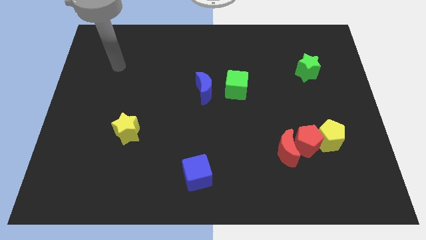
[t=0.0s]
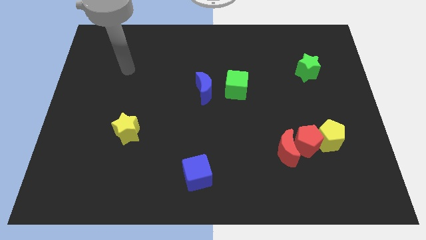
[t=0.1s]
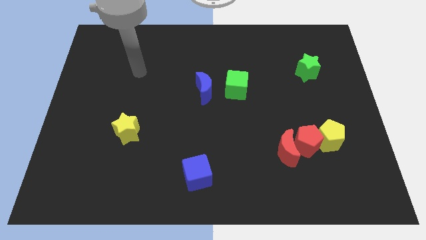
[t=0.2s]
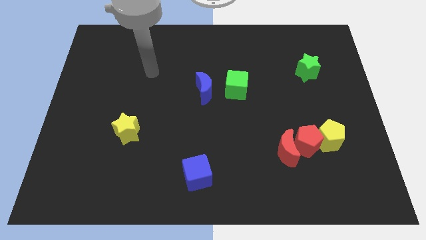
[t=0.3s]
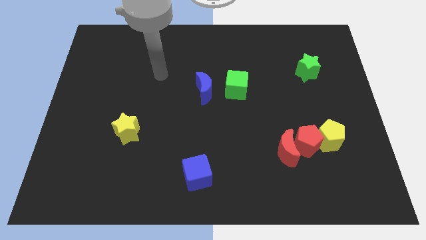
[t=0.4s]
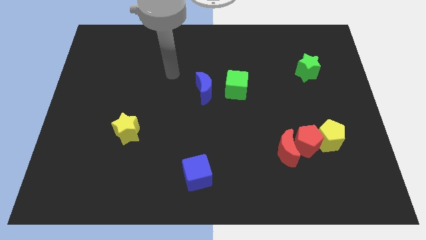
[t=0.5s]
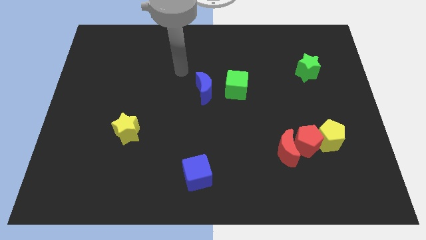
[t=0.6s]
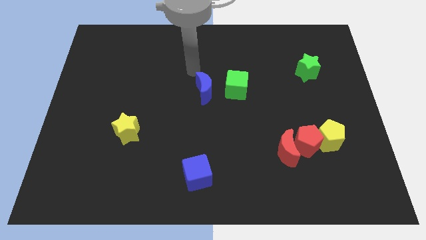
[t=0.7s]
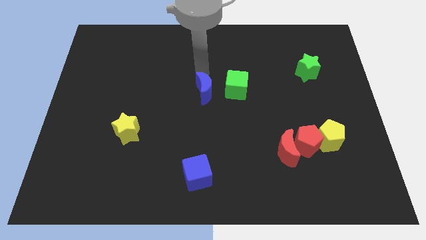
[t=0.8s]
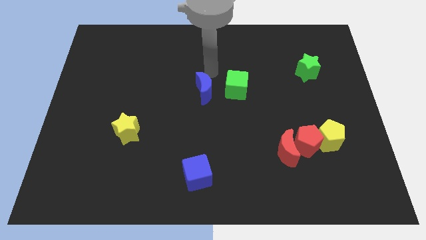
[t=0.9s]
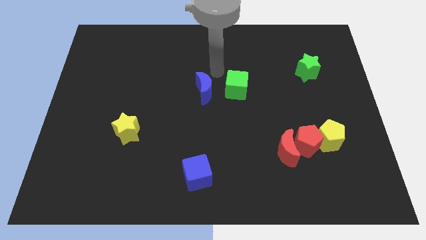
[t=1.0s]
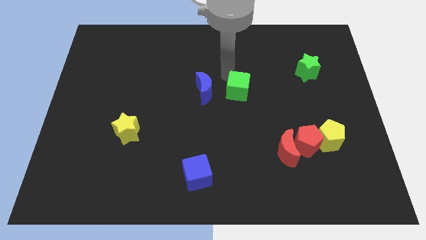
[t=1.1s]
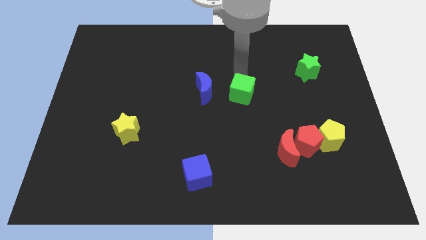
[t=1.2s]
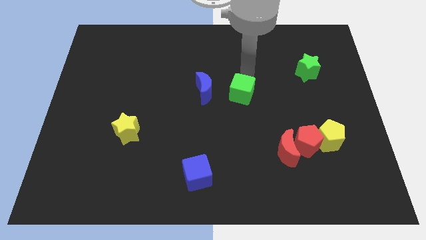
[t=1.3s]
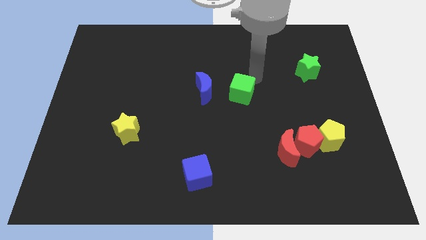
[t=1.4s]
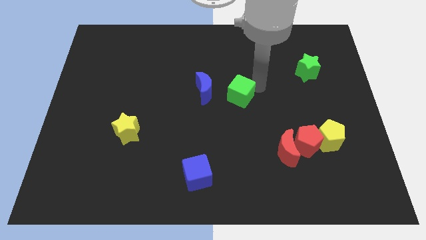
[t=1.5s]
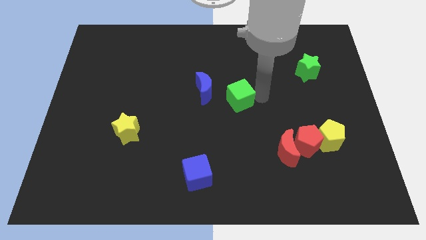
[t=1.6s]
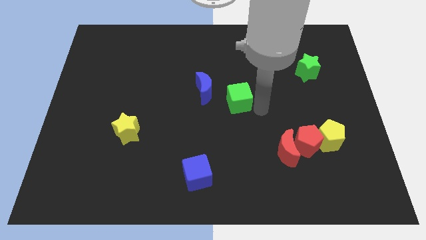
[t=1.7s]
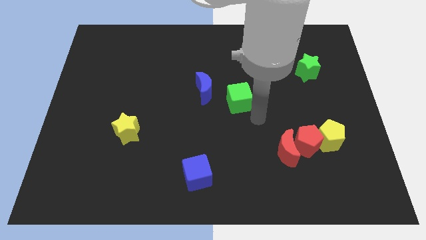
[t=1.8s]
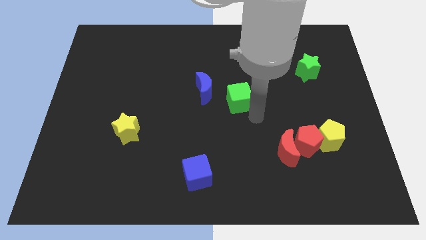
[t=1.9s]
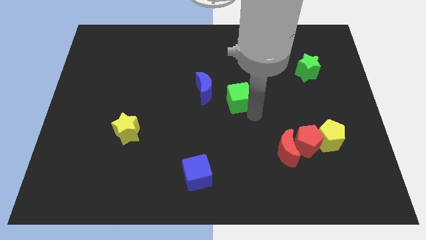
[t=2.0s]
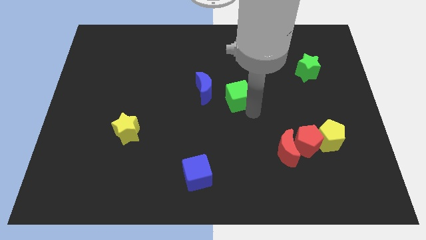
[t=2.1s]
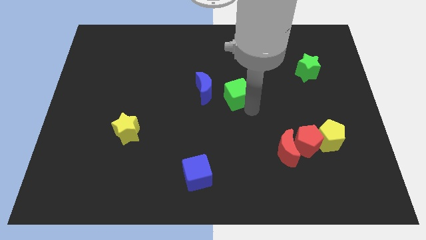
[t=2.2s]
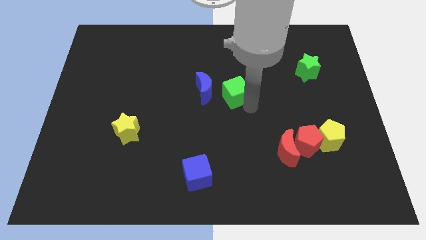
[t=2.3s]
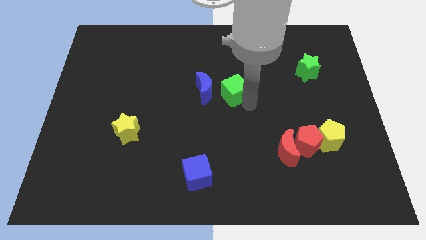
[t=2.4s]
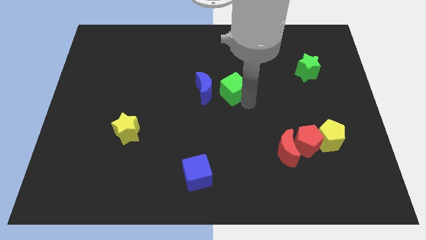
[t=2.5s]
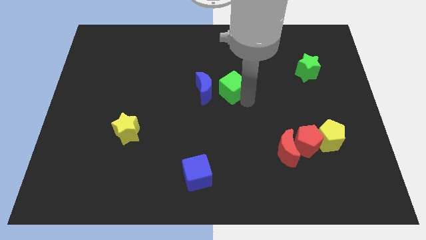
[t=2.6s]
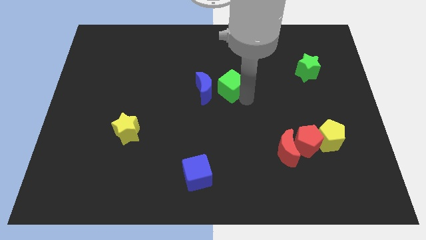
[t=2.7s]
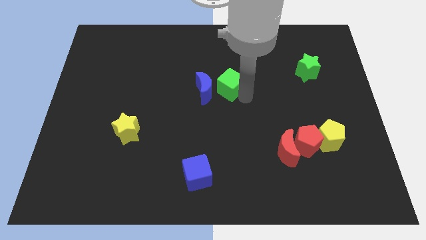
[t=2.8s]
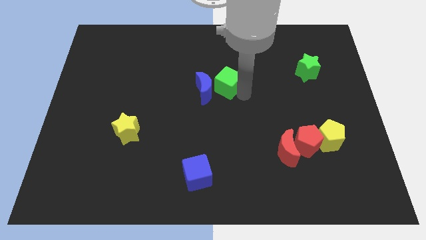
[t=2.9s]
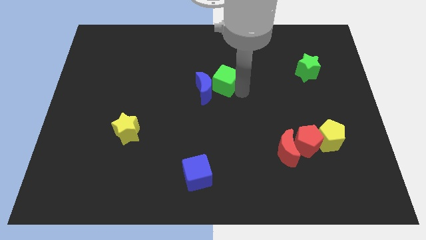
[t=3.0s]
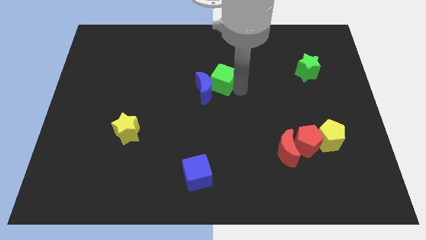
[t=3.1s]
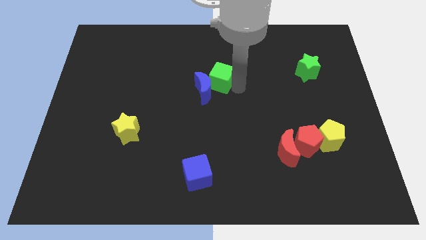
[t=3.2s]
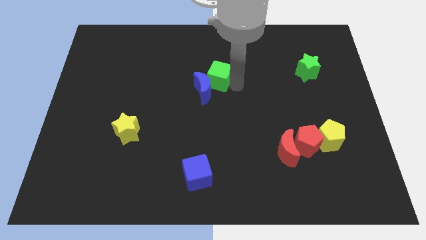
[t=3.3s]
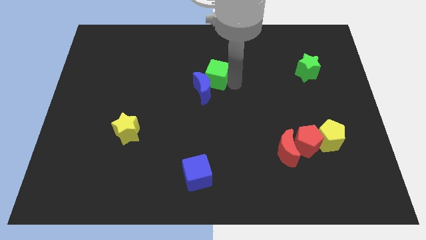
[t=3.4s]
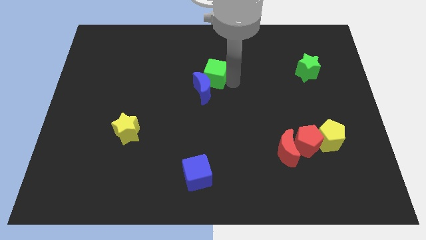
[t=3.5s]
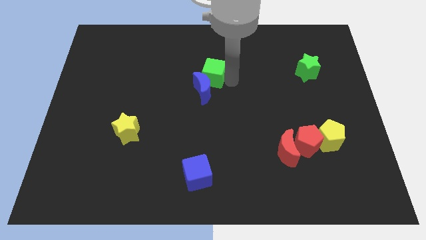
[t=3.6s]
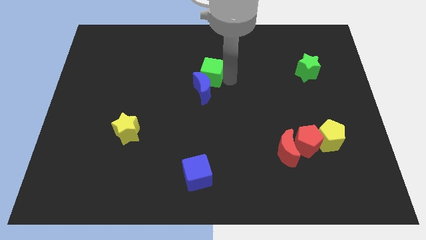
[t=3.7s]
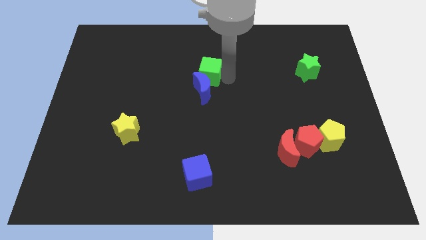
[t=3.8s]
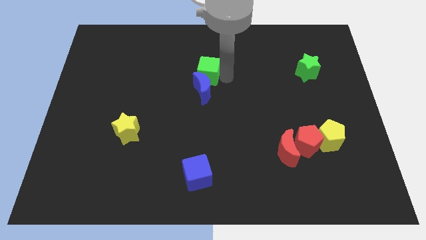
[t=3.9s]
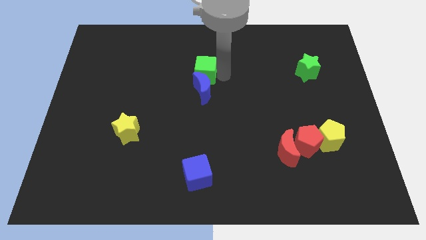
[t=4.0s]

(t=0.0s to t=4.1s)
slide the green cube left somewhat

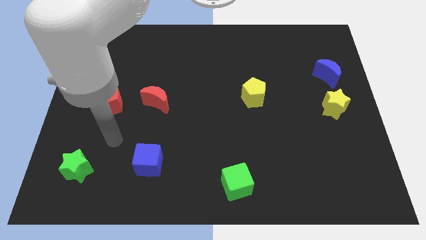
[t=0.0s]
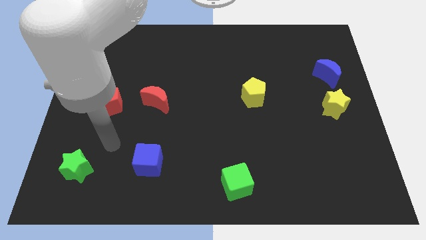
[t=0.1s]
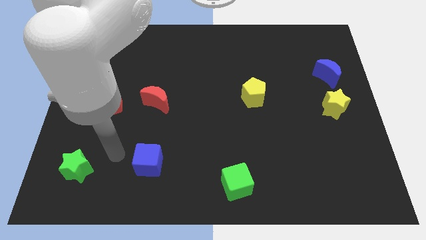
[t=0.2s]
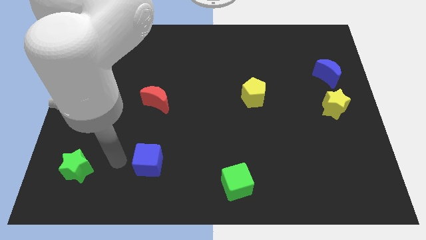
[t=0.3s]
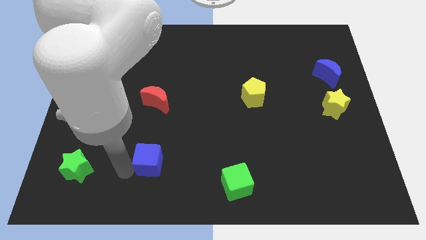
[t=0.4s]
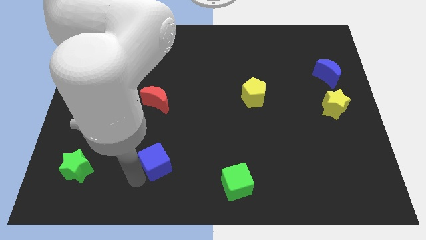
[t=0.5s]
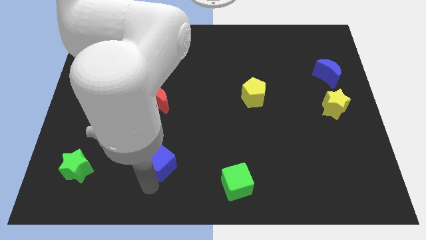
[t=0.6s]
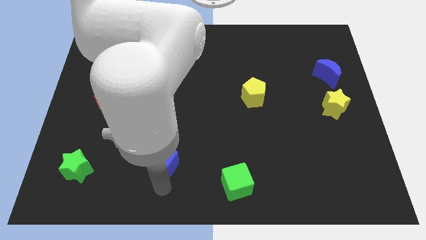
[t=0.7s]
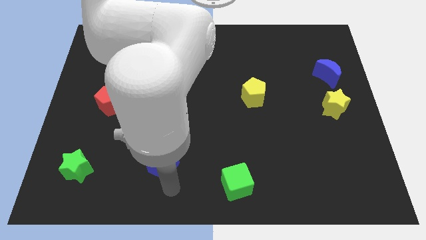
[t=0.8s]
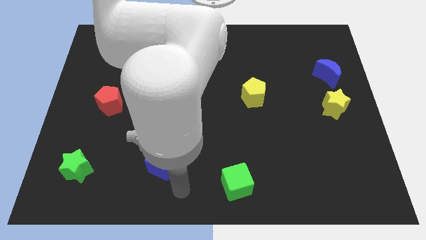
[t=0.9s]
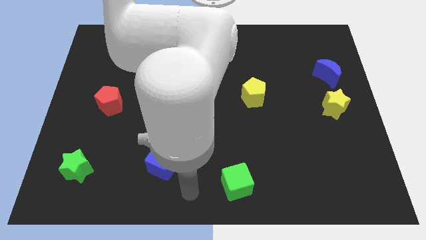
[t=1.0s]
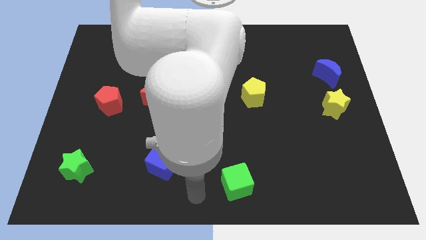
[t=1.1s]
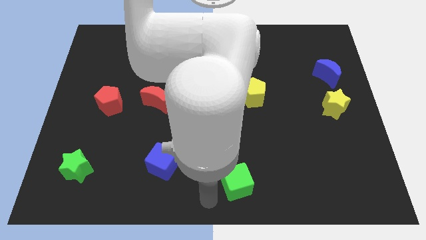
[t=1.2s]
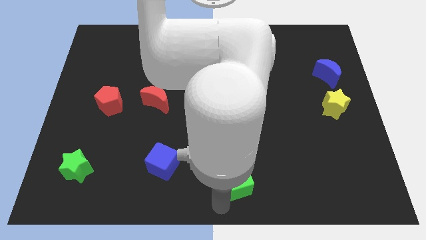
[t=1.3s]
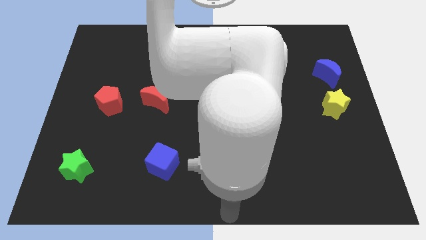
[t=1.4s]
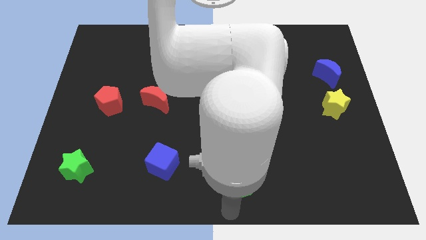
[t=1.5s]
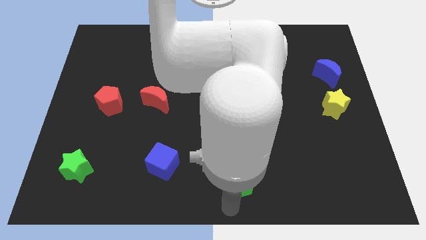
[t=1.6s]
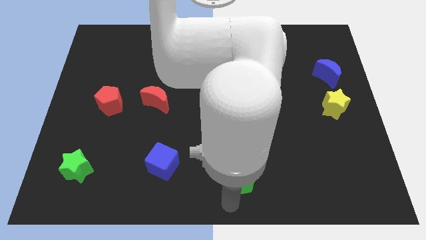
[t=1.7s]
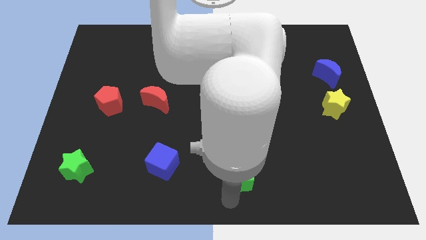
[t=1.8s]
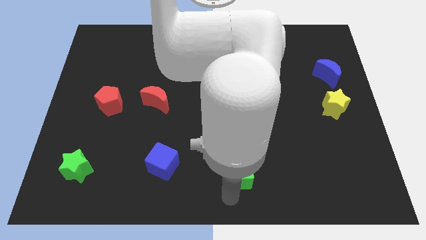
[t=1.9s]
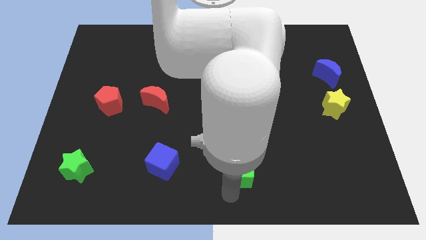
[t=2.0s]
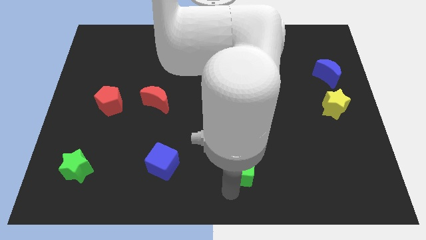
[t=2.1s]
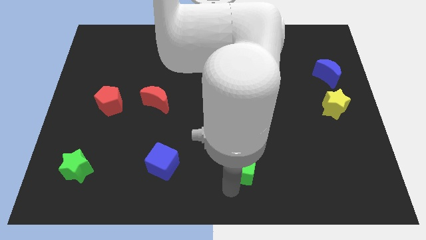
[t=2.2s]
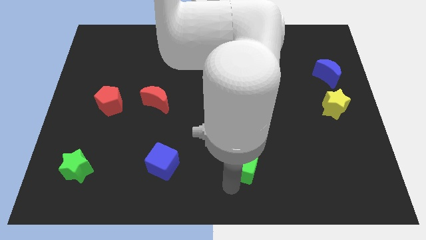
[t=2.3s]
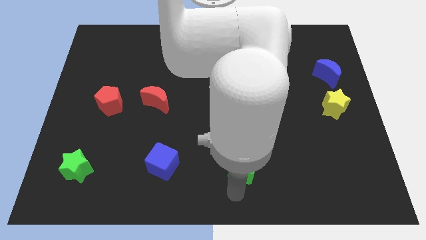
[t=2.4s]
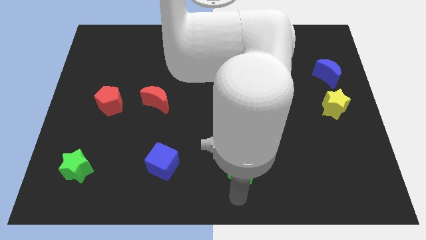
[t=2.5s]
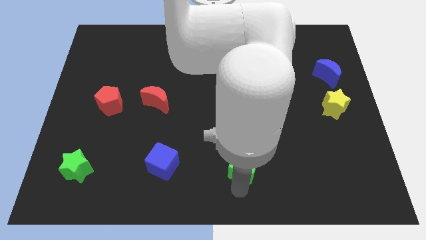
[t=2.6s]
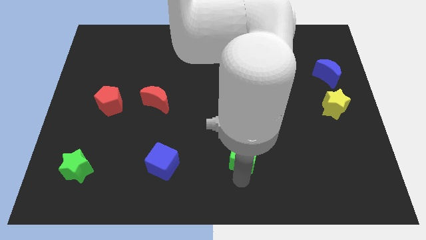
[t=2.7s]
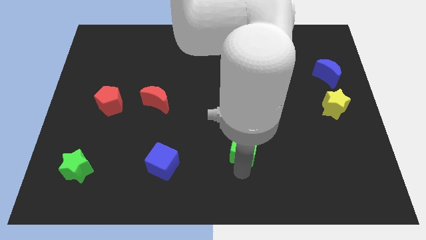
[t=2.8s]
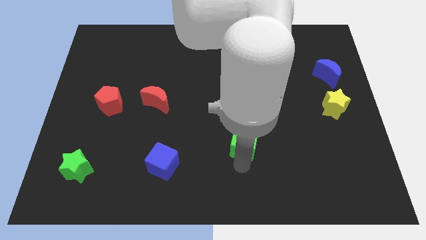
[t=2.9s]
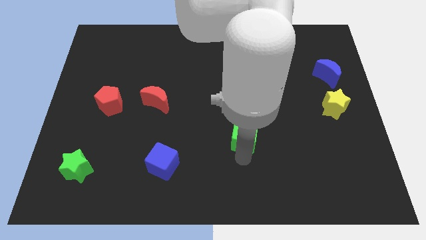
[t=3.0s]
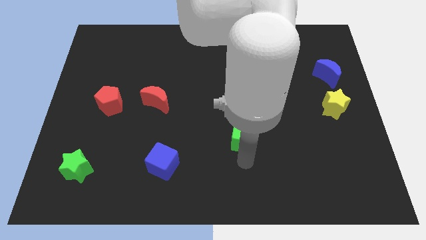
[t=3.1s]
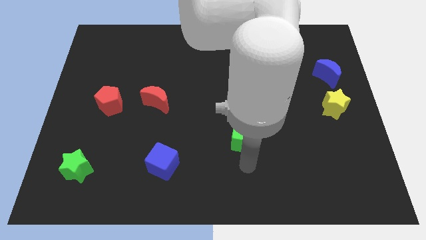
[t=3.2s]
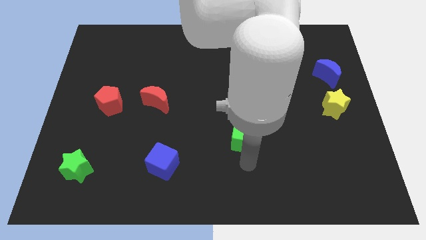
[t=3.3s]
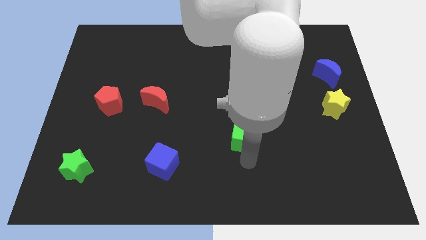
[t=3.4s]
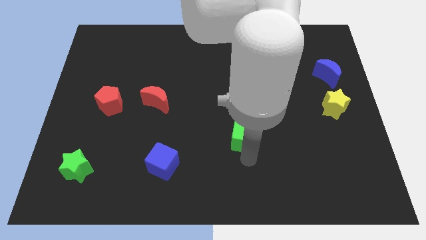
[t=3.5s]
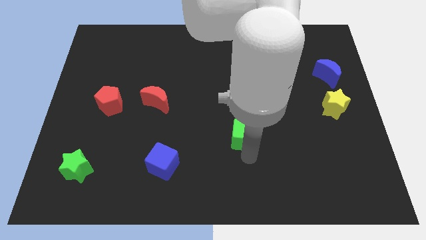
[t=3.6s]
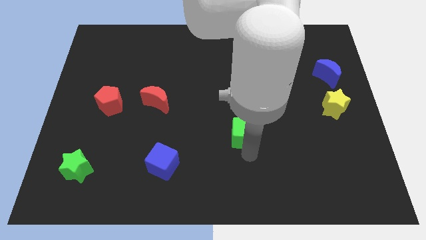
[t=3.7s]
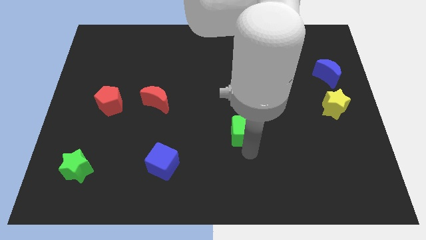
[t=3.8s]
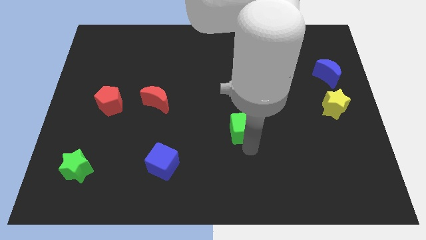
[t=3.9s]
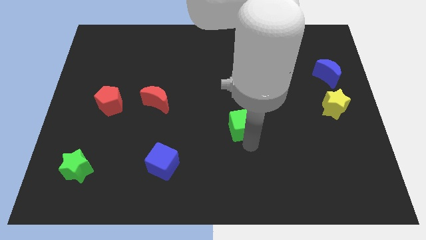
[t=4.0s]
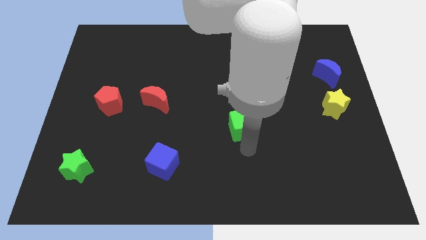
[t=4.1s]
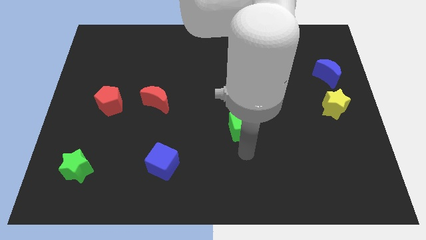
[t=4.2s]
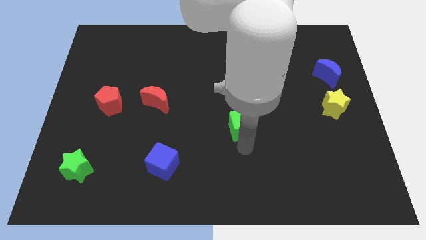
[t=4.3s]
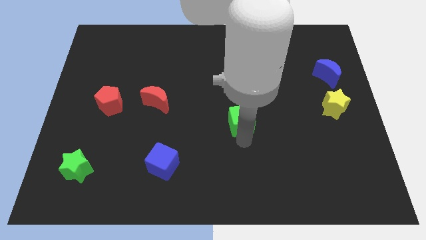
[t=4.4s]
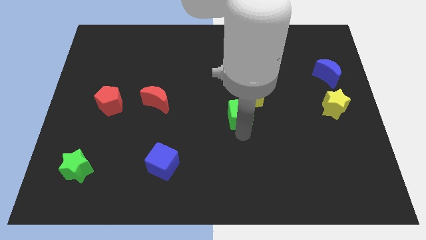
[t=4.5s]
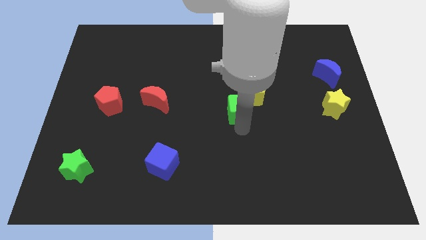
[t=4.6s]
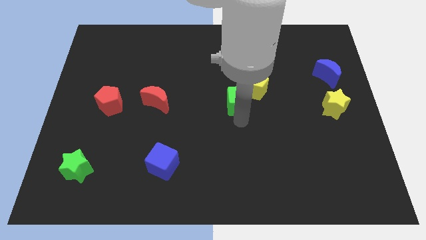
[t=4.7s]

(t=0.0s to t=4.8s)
move the green cube upwards
